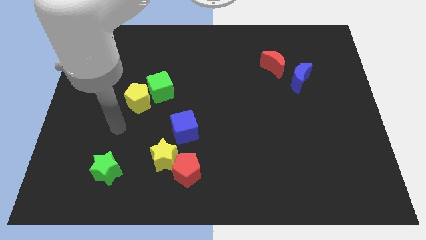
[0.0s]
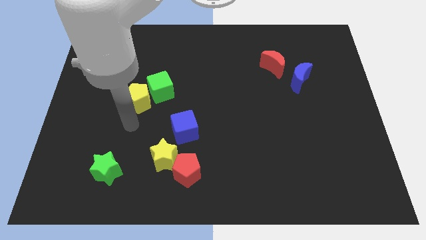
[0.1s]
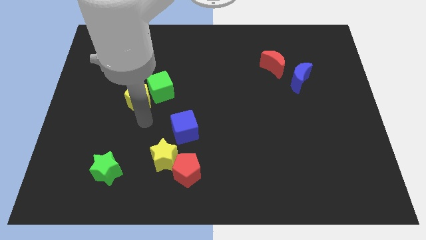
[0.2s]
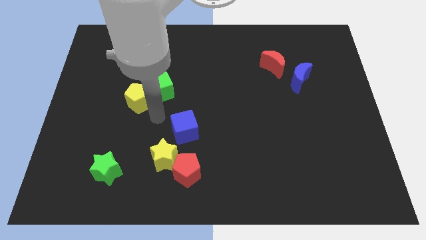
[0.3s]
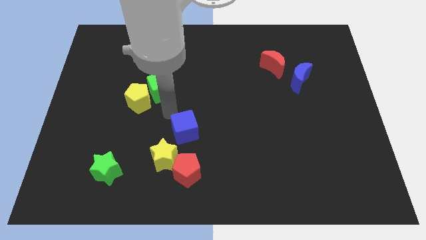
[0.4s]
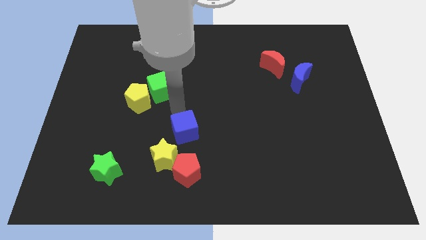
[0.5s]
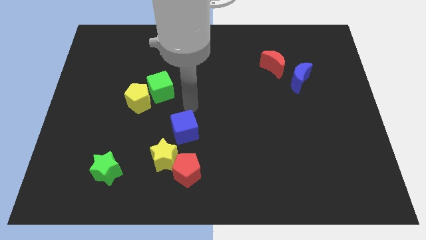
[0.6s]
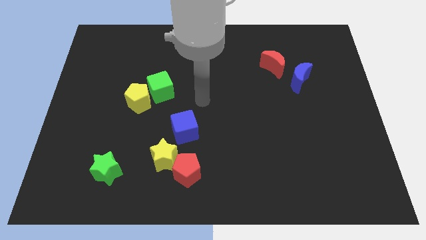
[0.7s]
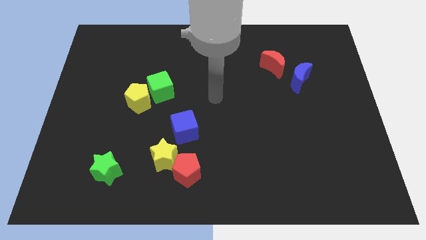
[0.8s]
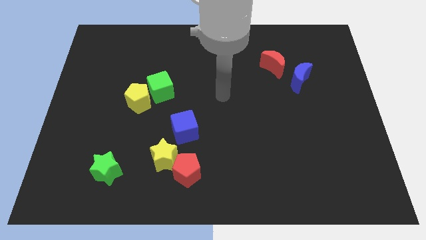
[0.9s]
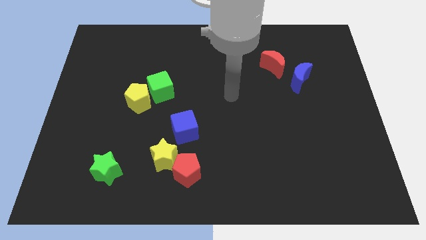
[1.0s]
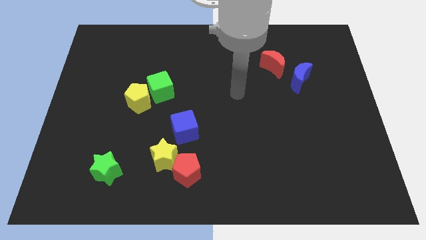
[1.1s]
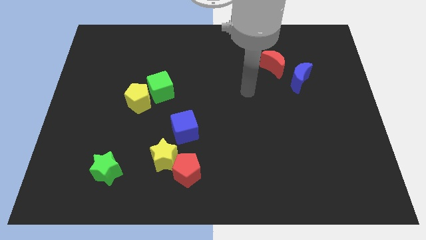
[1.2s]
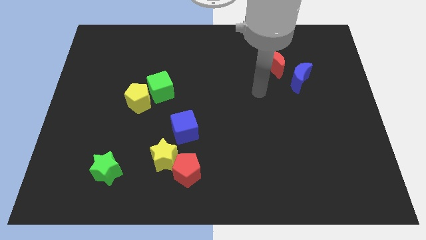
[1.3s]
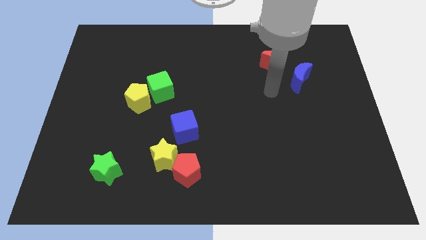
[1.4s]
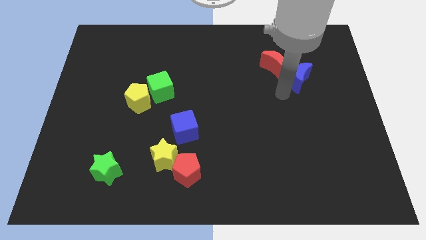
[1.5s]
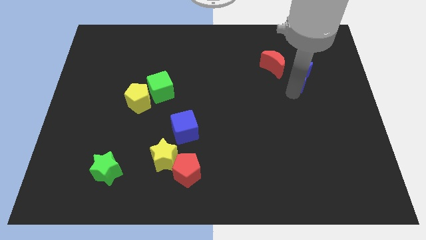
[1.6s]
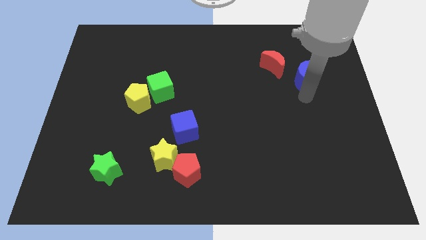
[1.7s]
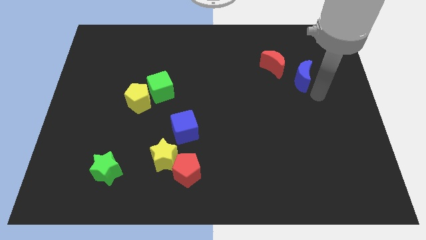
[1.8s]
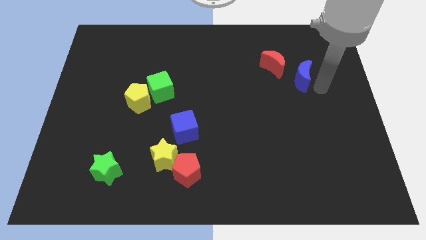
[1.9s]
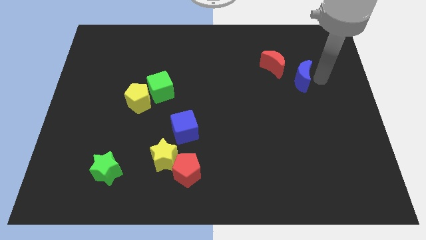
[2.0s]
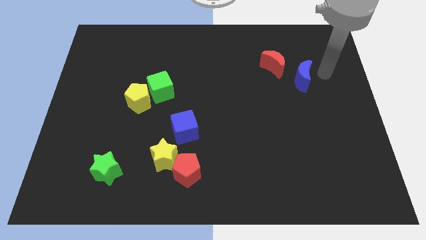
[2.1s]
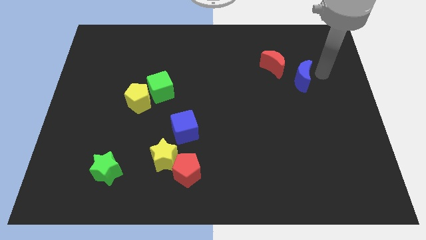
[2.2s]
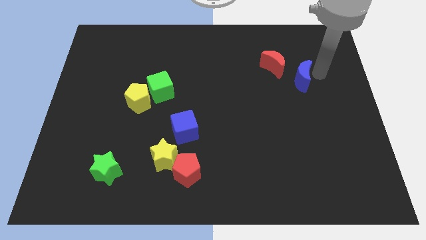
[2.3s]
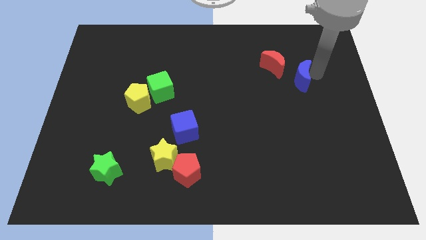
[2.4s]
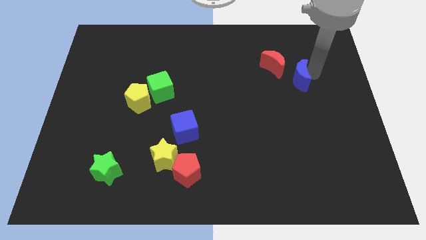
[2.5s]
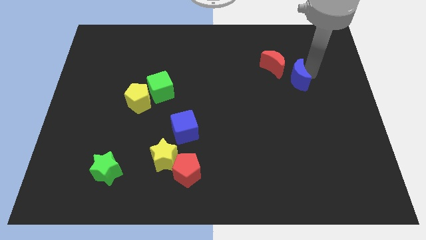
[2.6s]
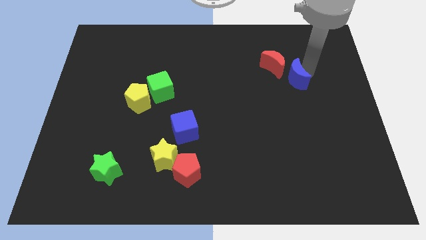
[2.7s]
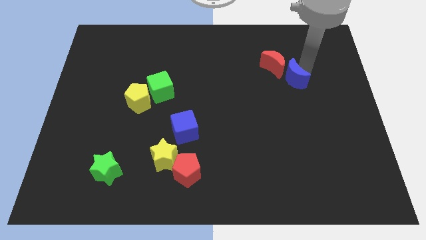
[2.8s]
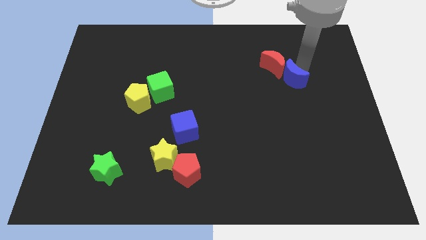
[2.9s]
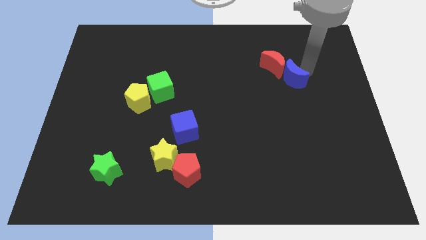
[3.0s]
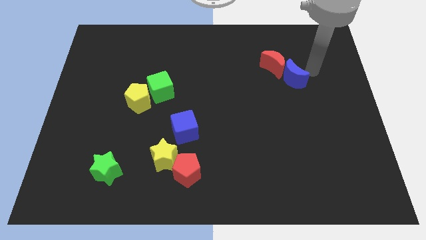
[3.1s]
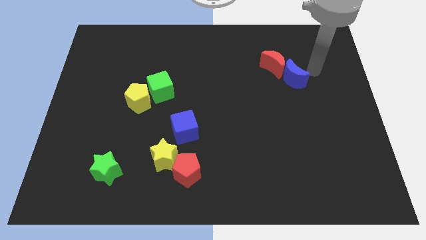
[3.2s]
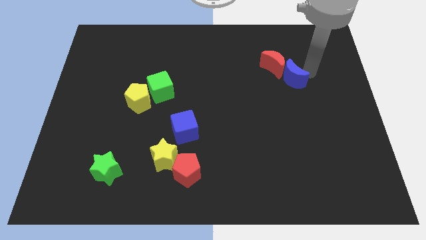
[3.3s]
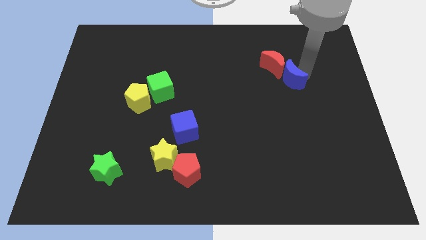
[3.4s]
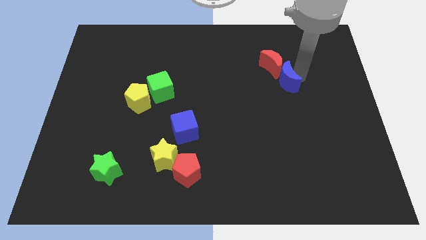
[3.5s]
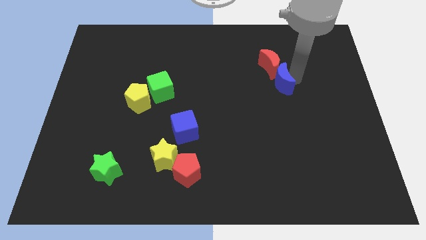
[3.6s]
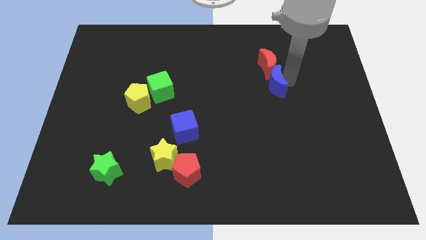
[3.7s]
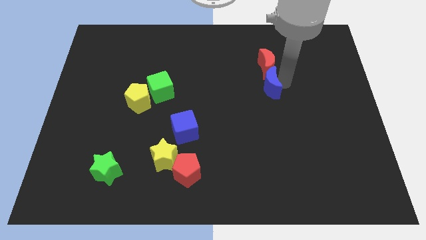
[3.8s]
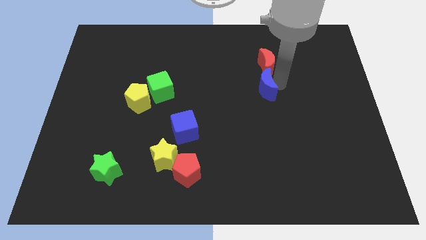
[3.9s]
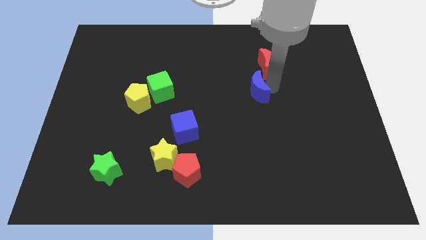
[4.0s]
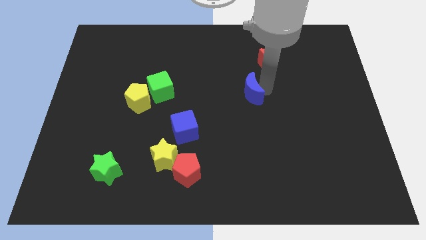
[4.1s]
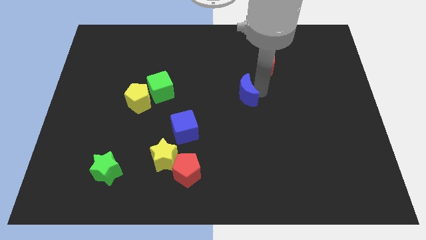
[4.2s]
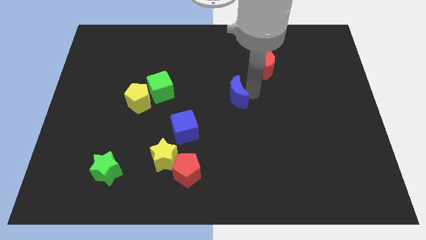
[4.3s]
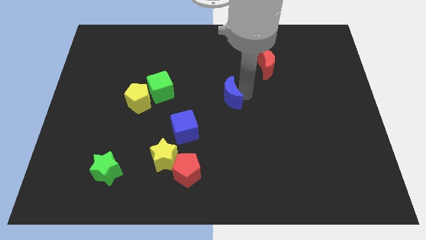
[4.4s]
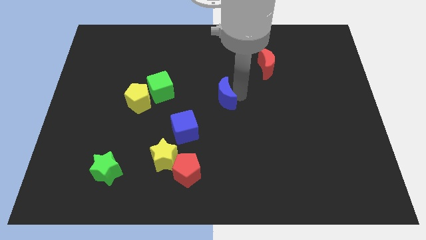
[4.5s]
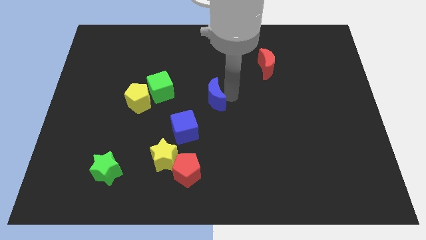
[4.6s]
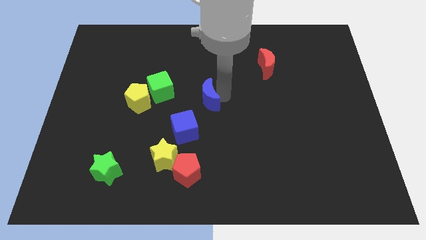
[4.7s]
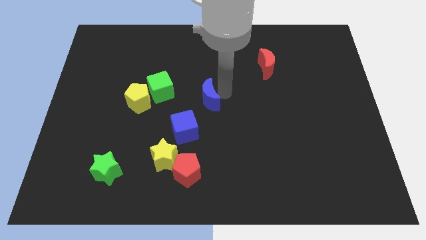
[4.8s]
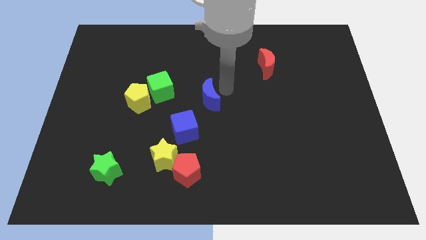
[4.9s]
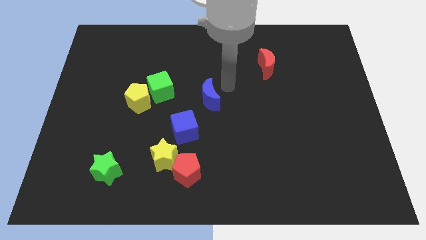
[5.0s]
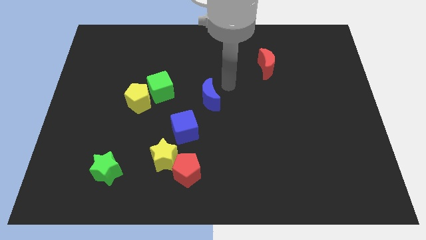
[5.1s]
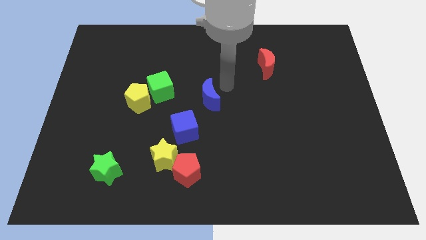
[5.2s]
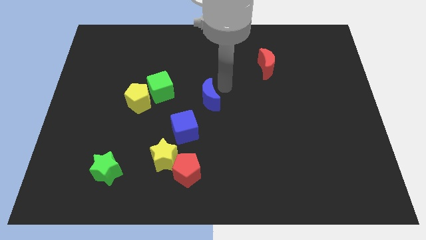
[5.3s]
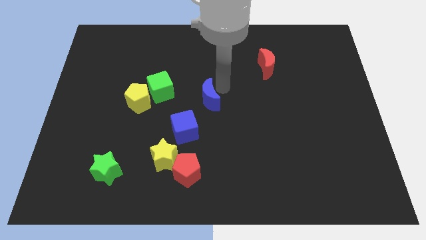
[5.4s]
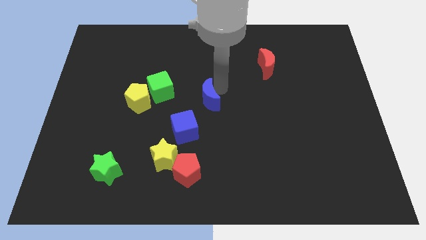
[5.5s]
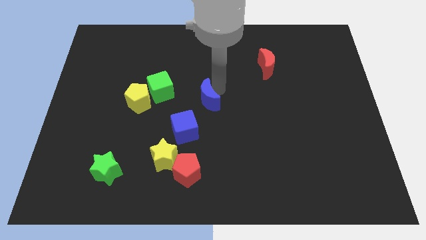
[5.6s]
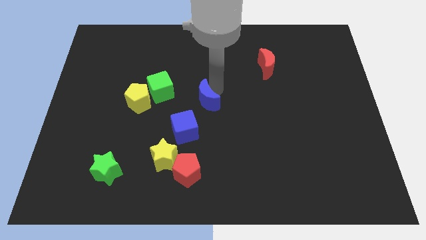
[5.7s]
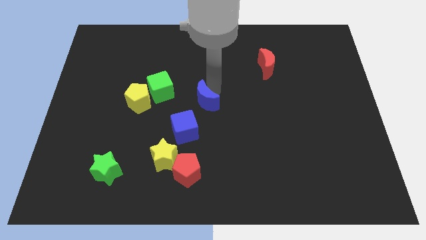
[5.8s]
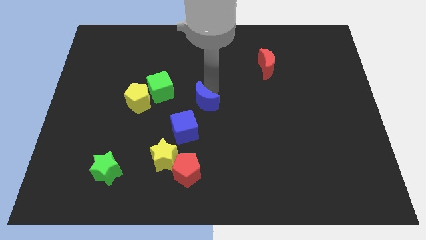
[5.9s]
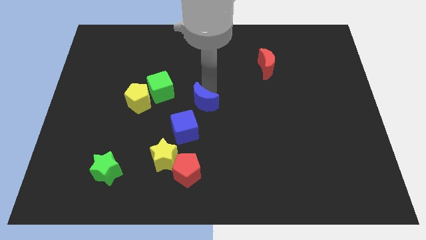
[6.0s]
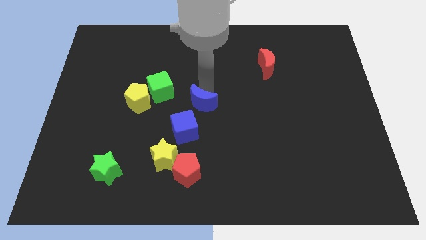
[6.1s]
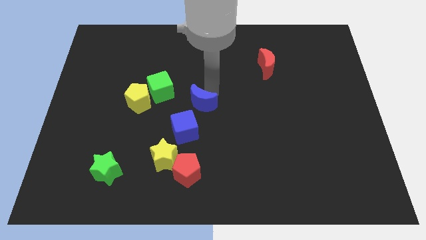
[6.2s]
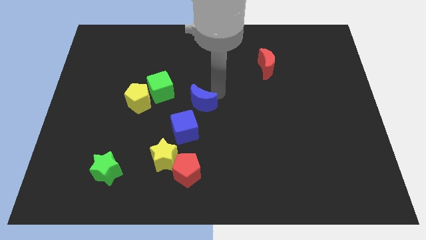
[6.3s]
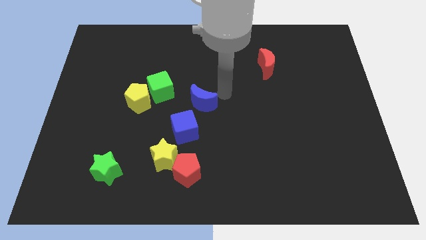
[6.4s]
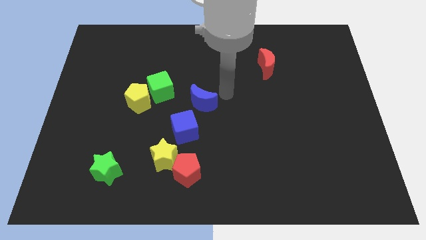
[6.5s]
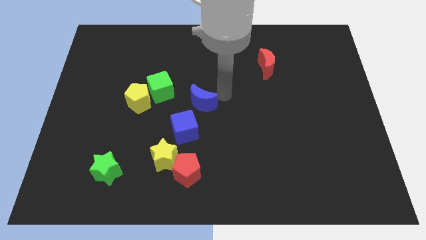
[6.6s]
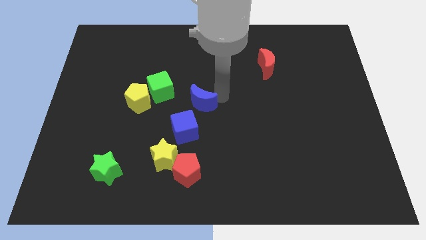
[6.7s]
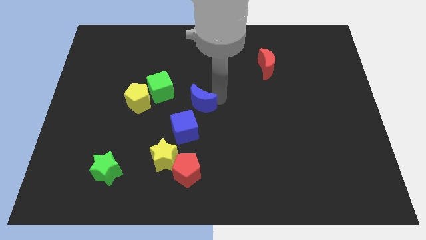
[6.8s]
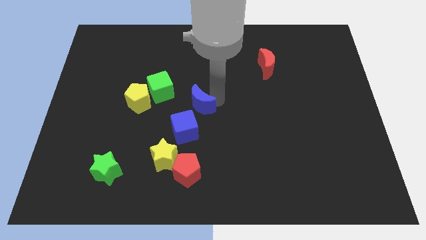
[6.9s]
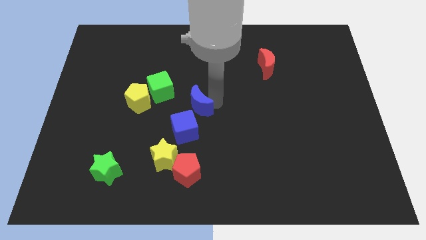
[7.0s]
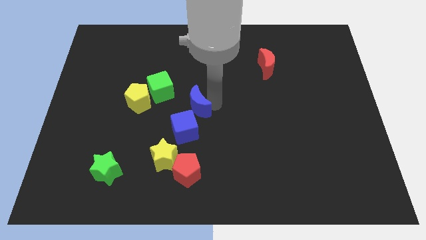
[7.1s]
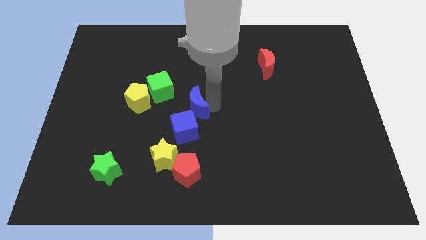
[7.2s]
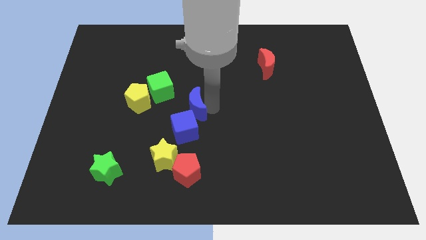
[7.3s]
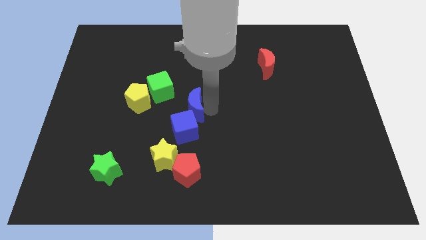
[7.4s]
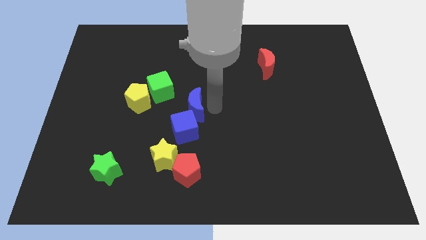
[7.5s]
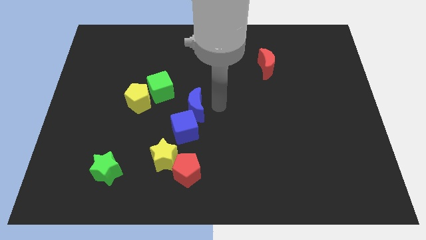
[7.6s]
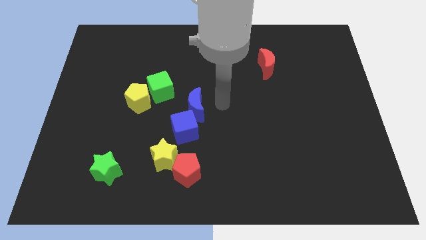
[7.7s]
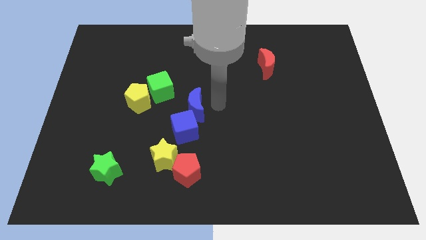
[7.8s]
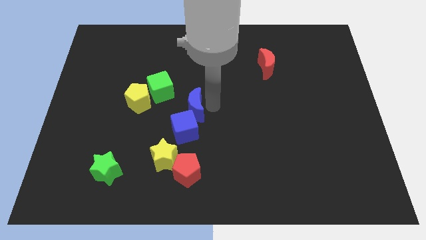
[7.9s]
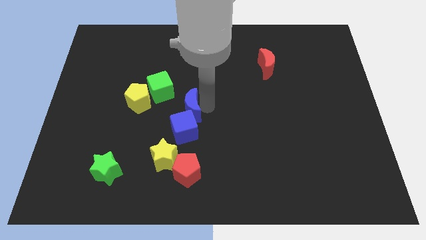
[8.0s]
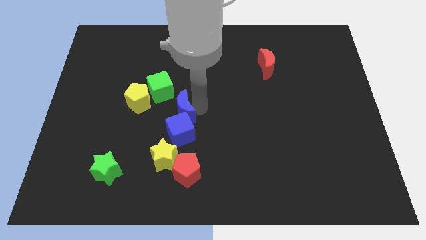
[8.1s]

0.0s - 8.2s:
move the blue moon diagonally up and to the left of the blue cube
